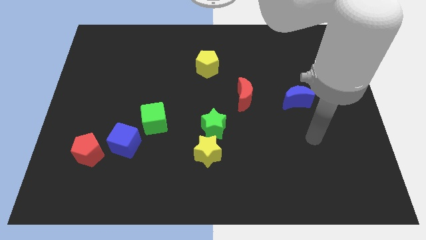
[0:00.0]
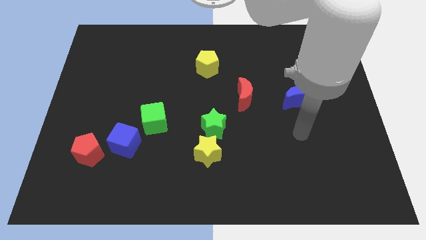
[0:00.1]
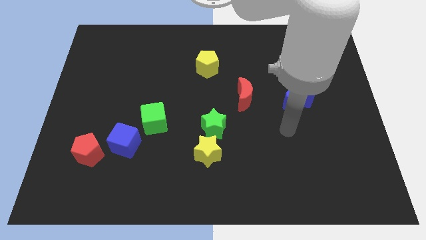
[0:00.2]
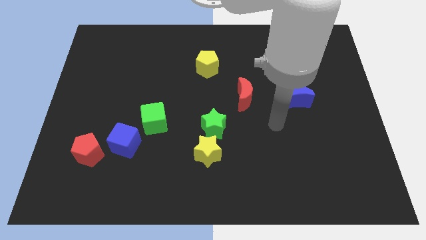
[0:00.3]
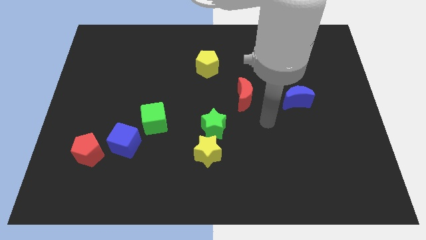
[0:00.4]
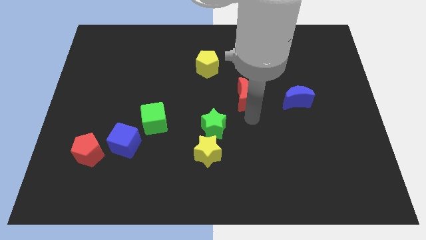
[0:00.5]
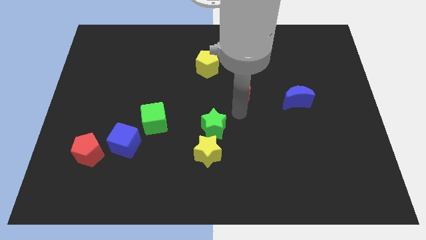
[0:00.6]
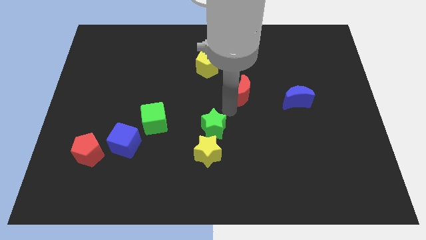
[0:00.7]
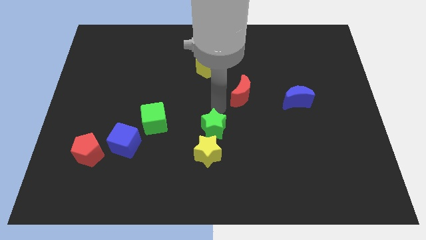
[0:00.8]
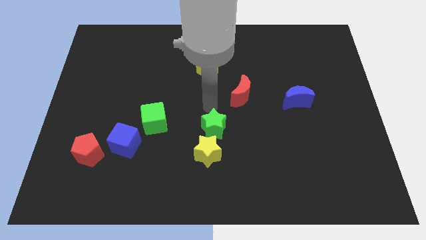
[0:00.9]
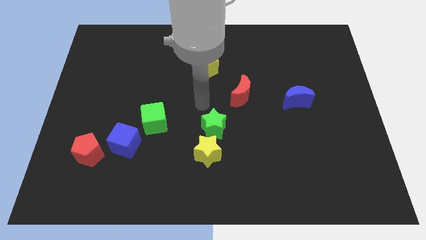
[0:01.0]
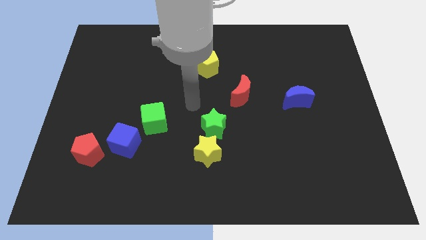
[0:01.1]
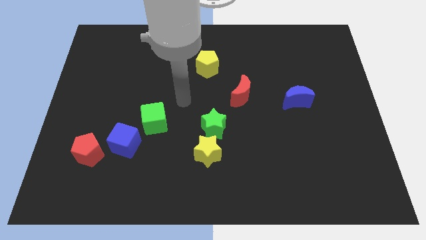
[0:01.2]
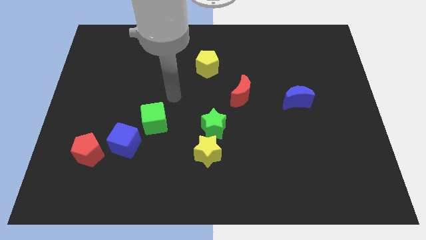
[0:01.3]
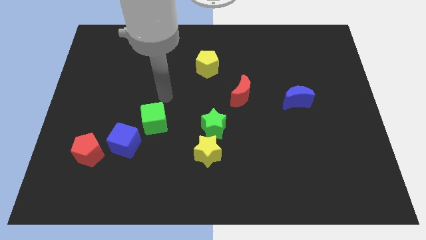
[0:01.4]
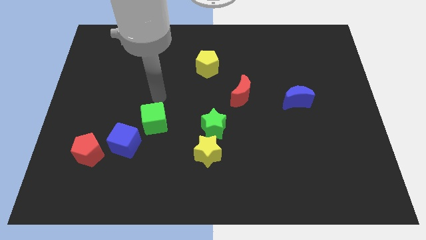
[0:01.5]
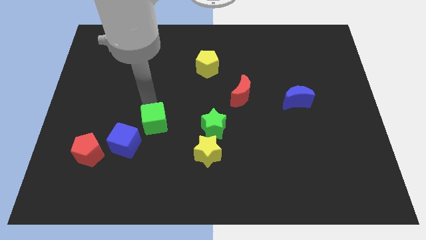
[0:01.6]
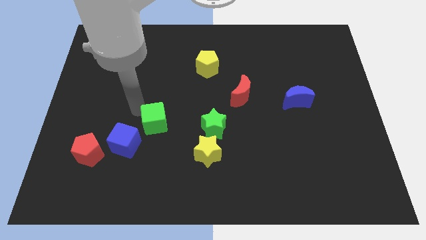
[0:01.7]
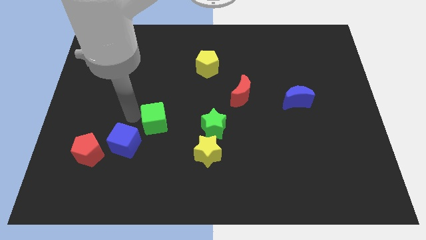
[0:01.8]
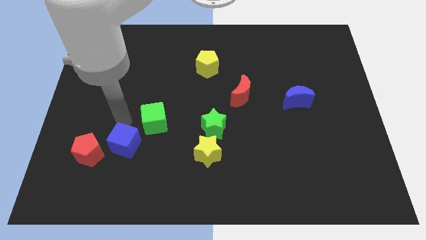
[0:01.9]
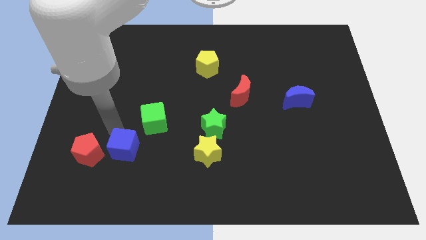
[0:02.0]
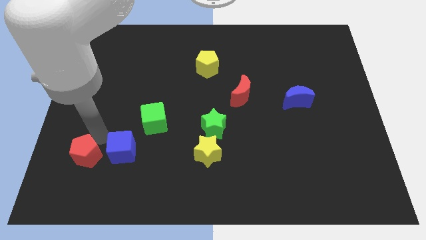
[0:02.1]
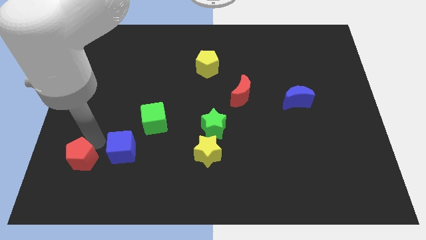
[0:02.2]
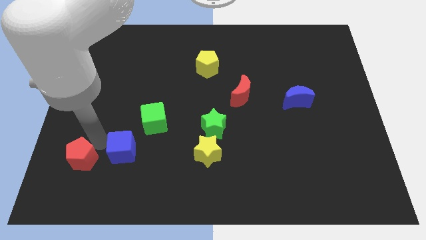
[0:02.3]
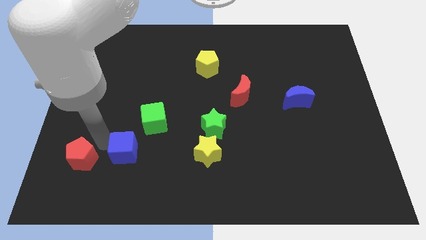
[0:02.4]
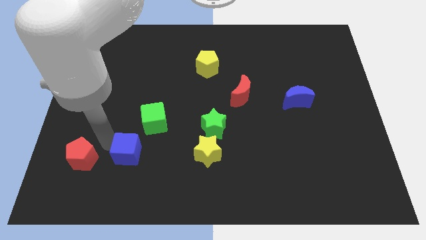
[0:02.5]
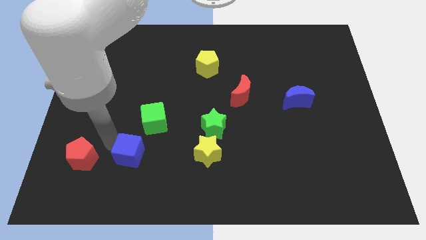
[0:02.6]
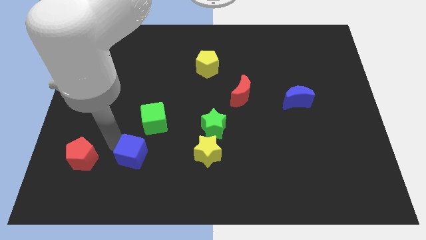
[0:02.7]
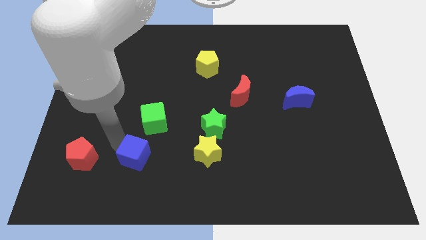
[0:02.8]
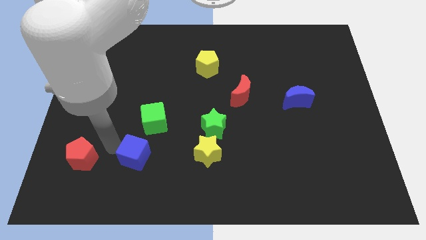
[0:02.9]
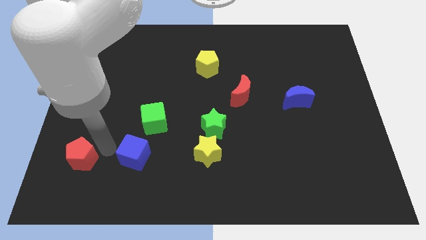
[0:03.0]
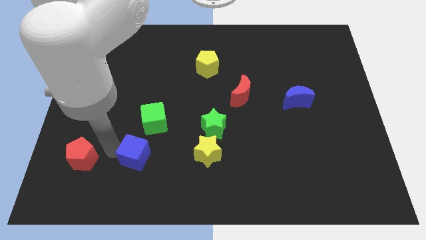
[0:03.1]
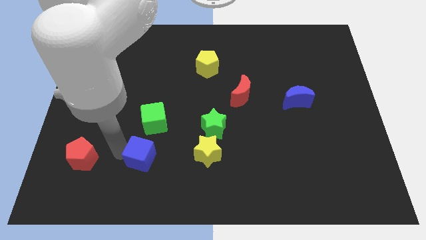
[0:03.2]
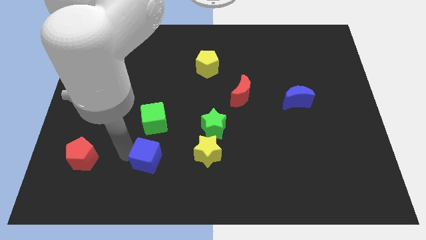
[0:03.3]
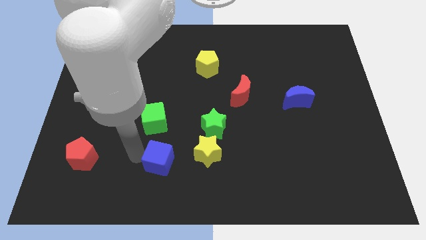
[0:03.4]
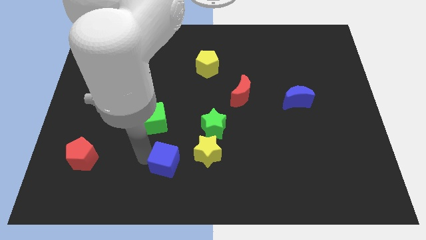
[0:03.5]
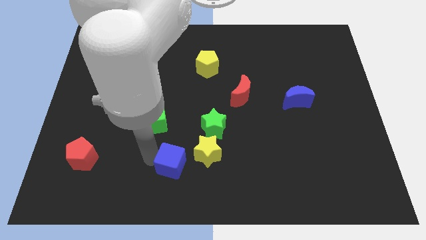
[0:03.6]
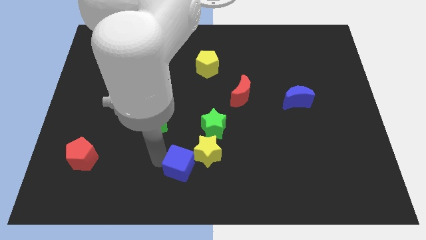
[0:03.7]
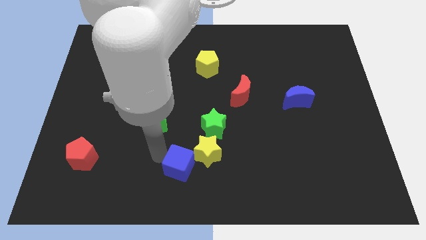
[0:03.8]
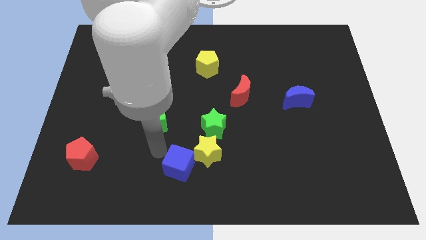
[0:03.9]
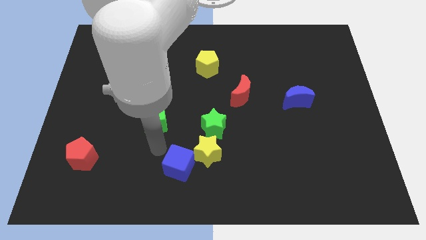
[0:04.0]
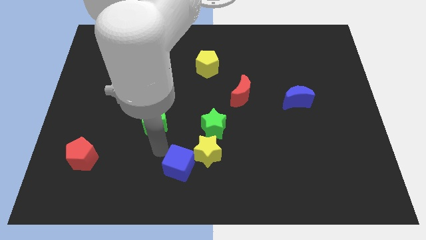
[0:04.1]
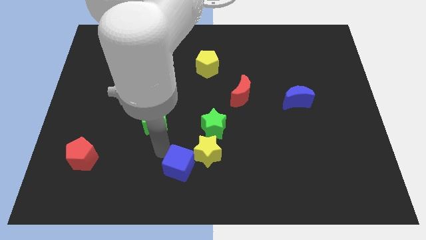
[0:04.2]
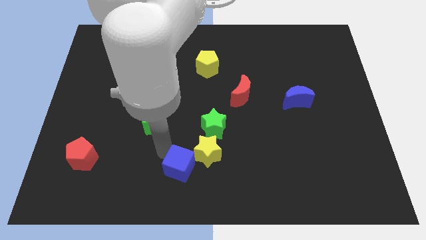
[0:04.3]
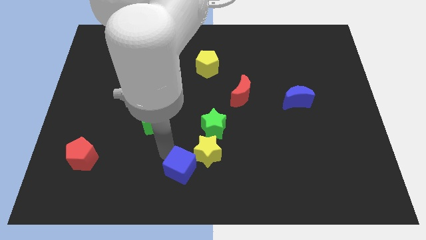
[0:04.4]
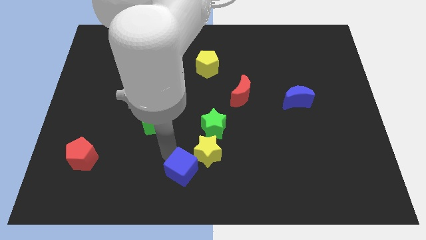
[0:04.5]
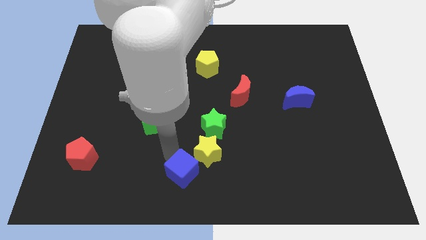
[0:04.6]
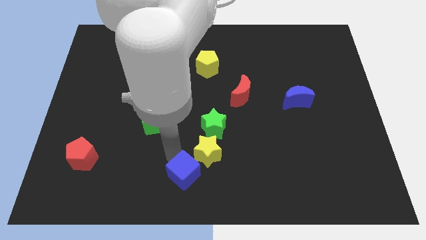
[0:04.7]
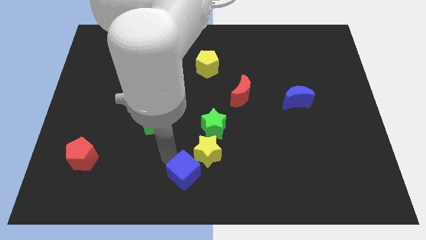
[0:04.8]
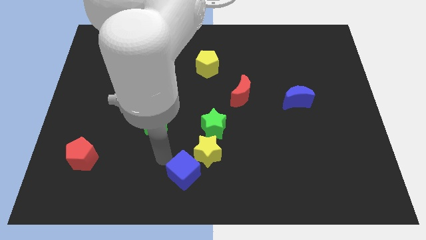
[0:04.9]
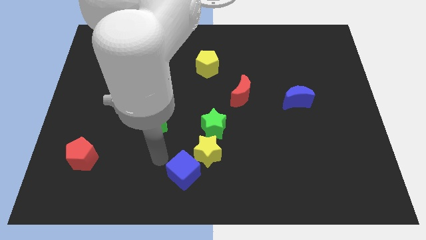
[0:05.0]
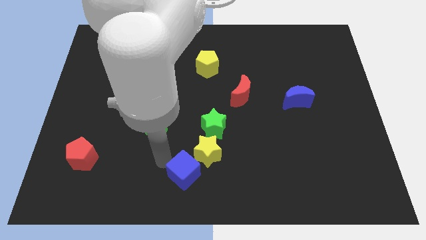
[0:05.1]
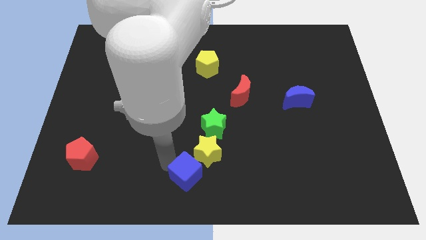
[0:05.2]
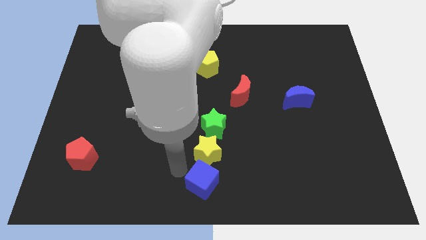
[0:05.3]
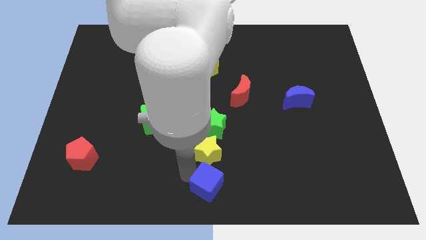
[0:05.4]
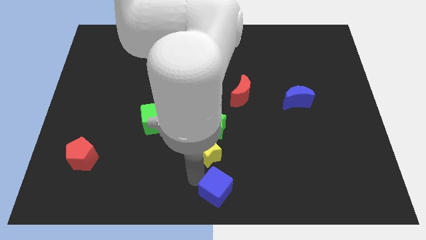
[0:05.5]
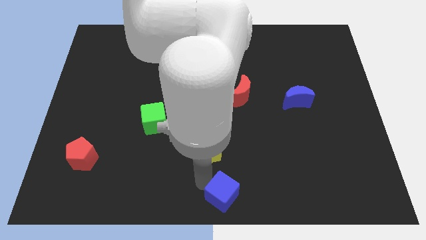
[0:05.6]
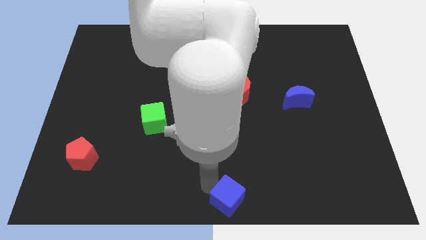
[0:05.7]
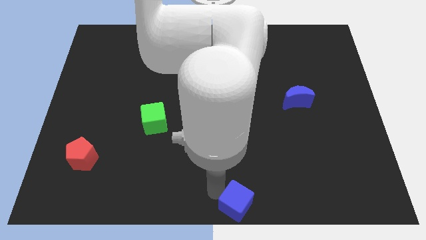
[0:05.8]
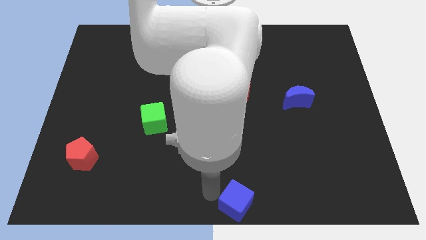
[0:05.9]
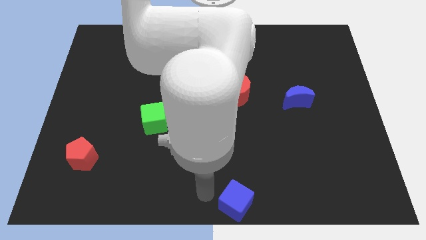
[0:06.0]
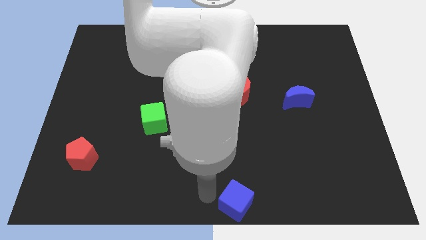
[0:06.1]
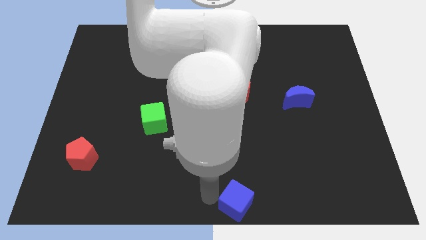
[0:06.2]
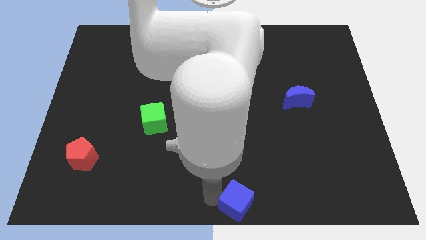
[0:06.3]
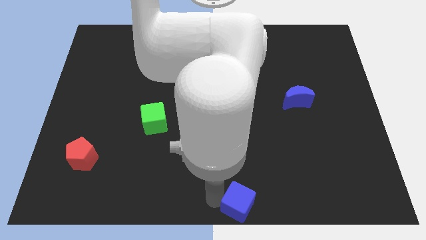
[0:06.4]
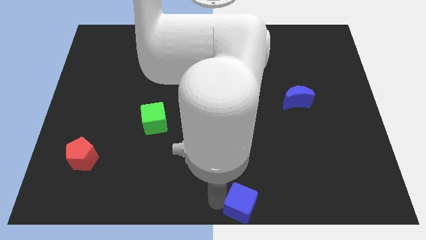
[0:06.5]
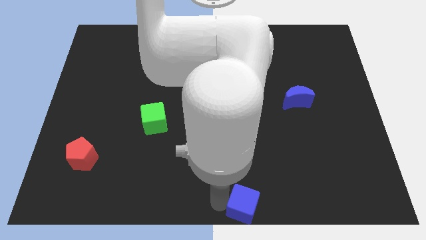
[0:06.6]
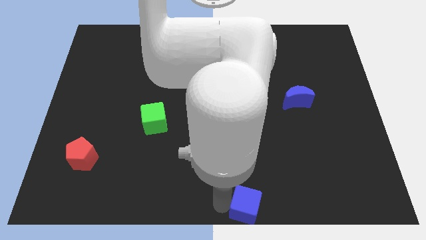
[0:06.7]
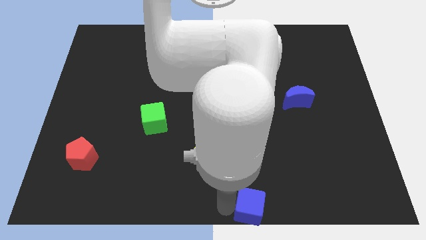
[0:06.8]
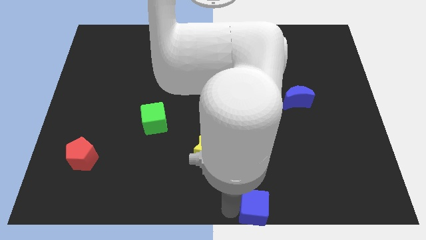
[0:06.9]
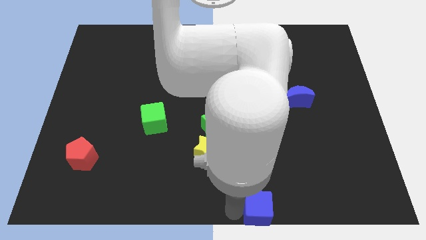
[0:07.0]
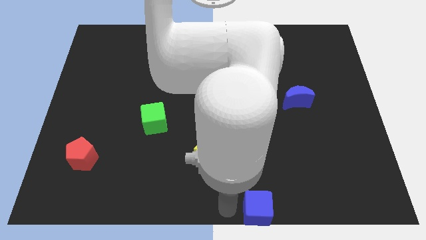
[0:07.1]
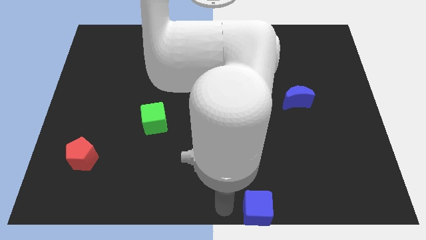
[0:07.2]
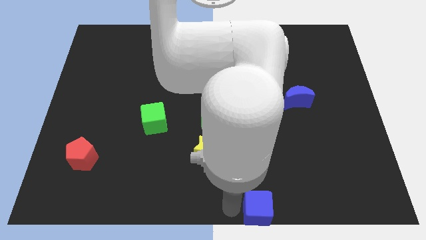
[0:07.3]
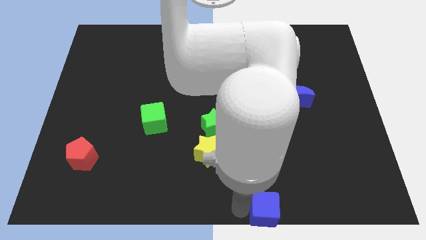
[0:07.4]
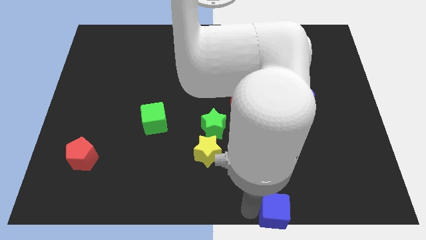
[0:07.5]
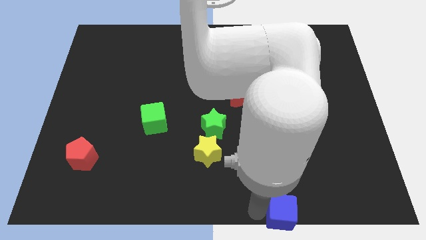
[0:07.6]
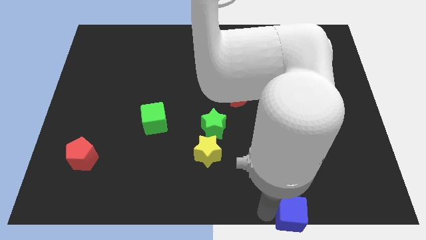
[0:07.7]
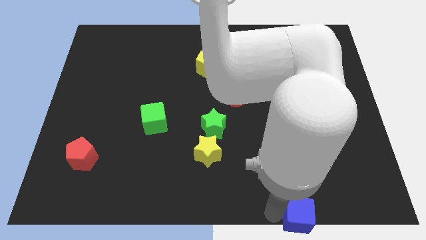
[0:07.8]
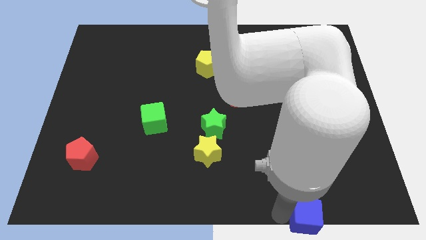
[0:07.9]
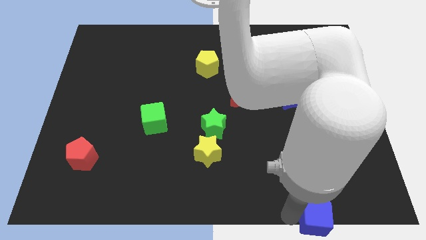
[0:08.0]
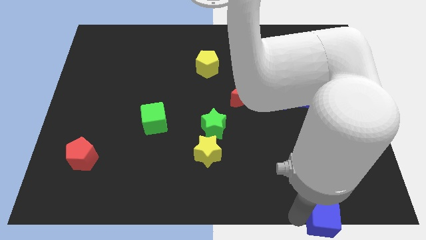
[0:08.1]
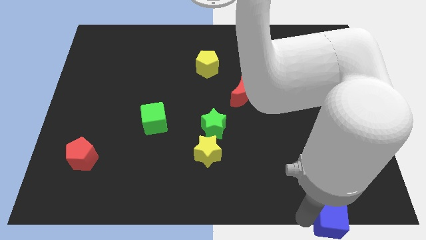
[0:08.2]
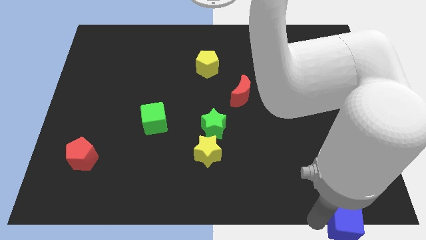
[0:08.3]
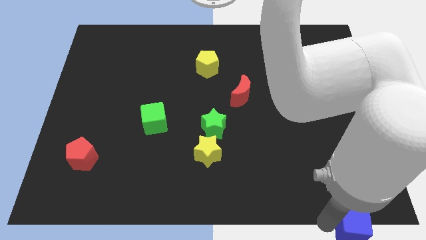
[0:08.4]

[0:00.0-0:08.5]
push the blue cube to the bottom right
